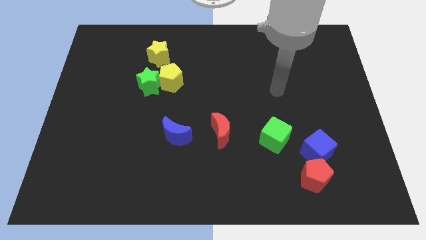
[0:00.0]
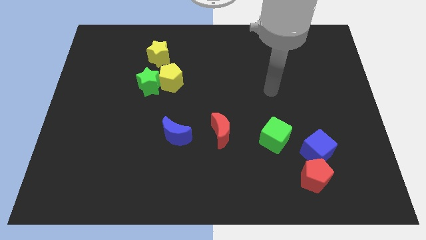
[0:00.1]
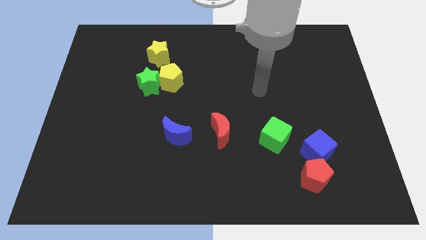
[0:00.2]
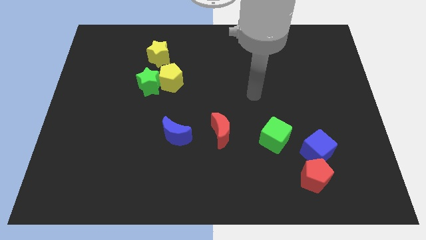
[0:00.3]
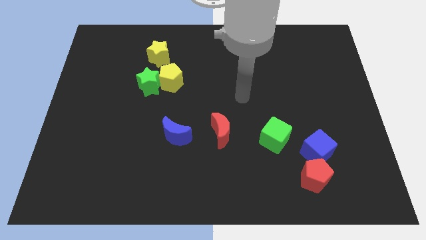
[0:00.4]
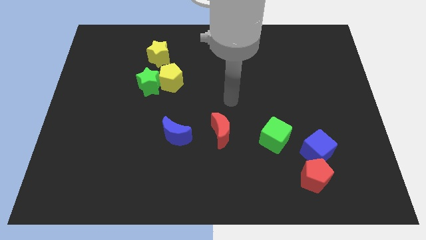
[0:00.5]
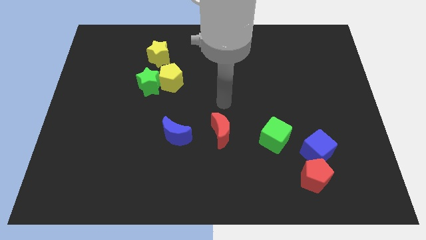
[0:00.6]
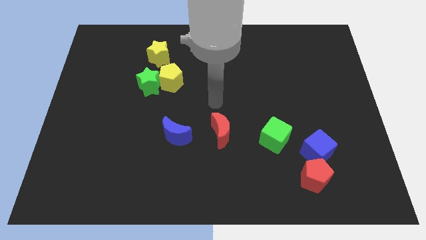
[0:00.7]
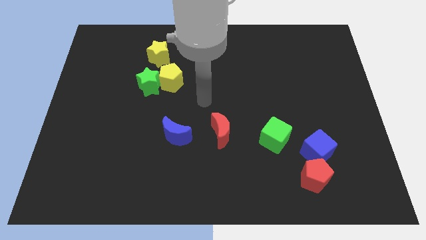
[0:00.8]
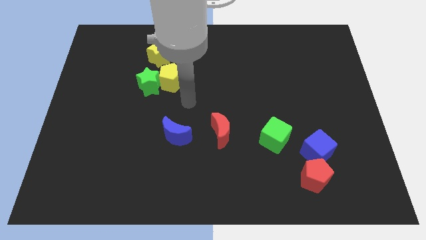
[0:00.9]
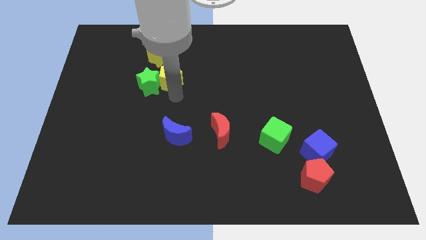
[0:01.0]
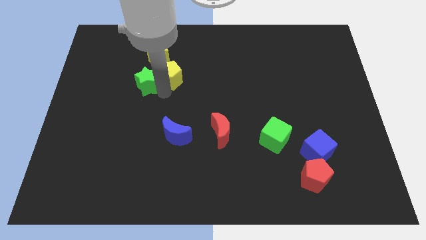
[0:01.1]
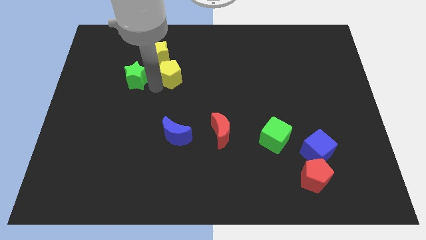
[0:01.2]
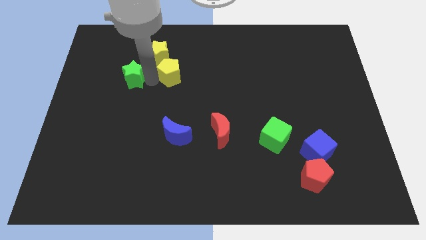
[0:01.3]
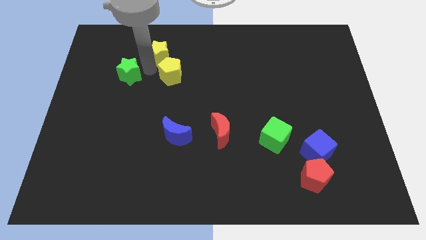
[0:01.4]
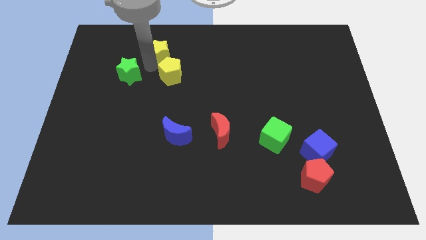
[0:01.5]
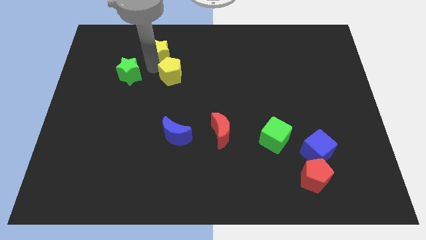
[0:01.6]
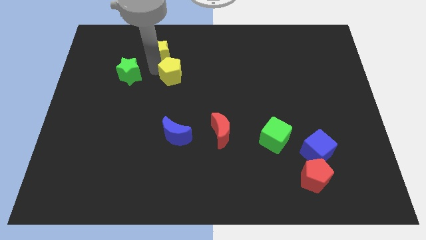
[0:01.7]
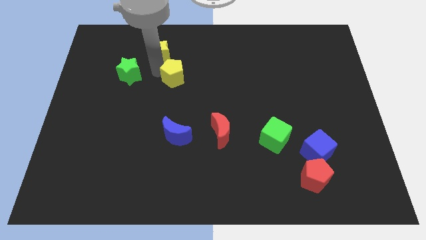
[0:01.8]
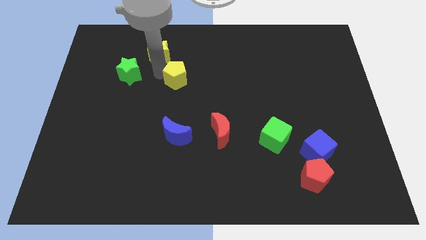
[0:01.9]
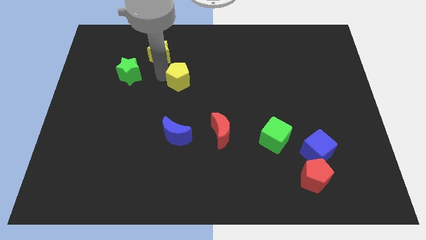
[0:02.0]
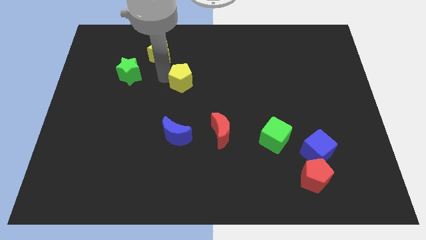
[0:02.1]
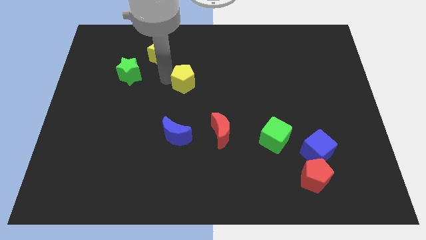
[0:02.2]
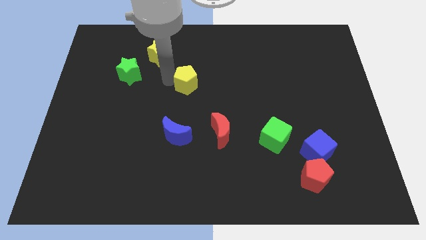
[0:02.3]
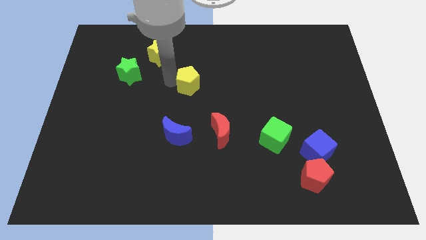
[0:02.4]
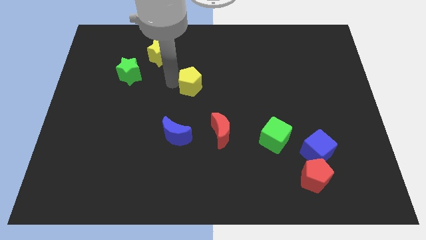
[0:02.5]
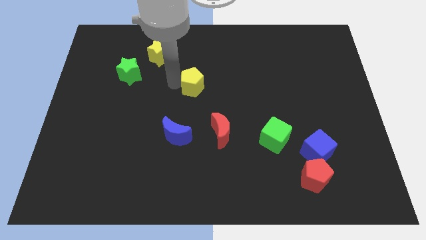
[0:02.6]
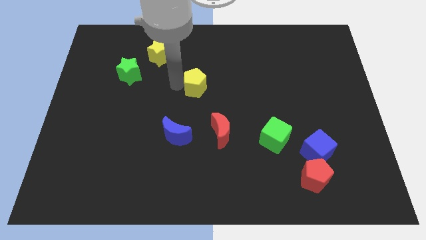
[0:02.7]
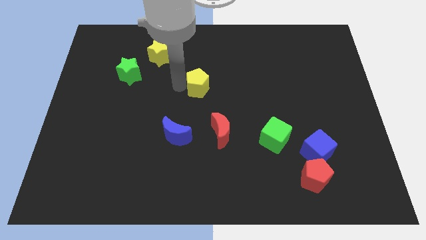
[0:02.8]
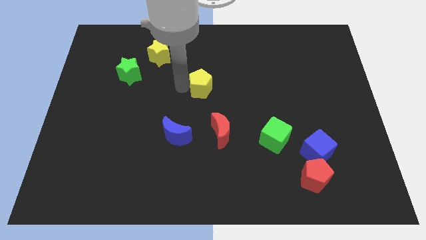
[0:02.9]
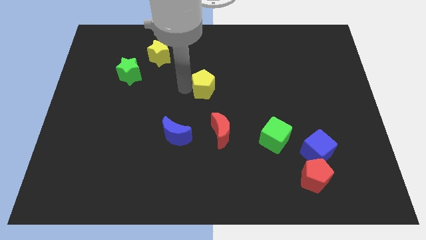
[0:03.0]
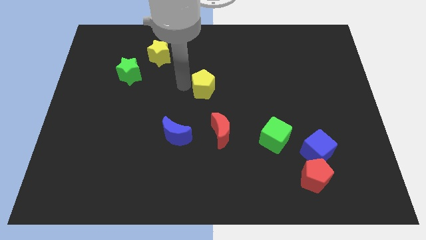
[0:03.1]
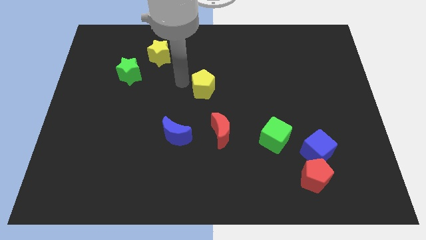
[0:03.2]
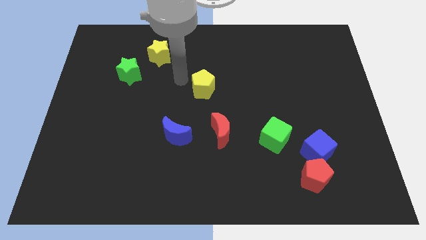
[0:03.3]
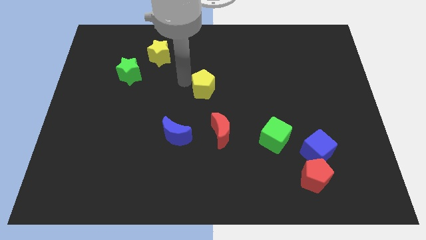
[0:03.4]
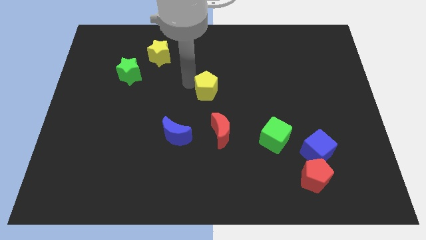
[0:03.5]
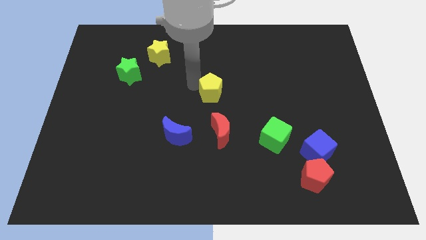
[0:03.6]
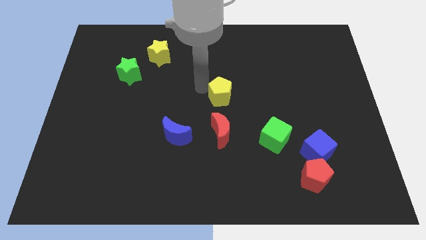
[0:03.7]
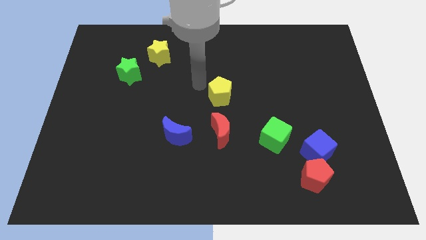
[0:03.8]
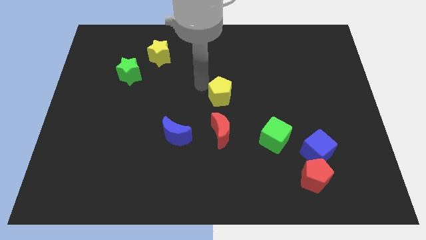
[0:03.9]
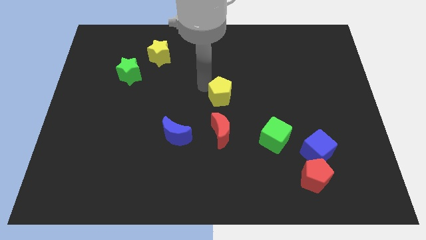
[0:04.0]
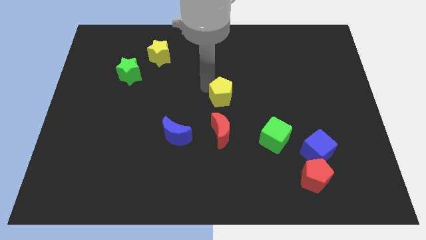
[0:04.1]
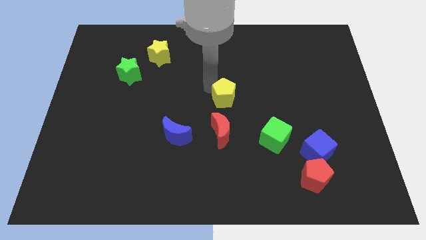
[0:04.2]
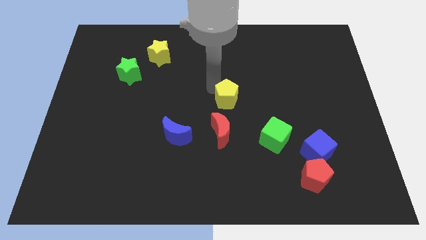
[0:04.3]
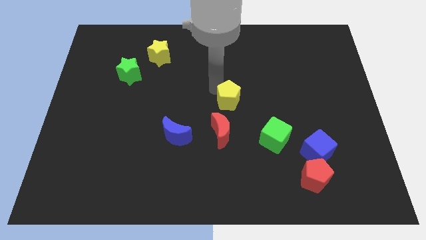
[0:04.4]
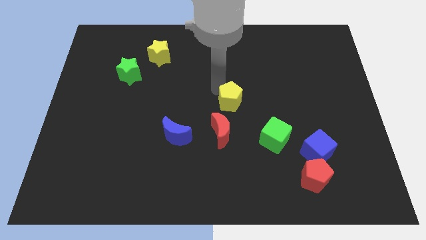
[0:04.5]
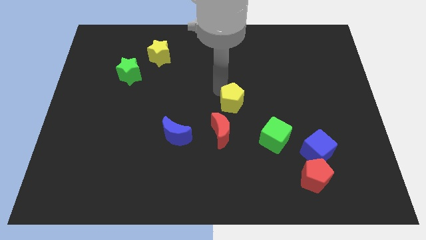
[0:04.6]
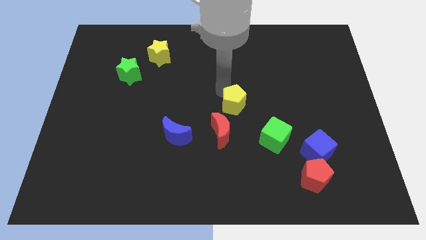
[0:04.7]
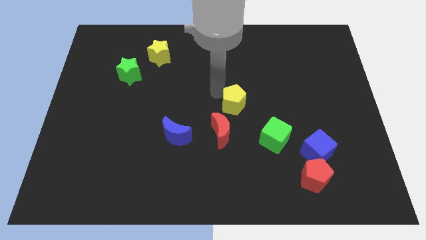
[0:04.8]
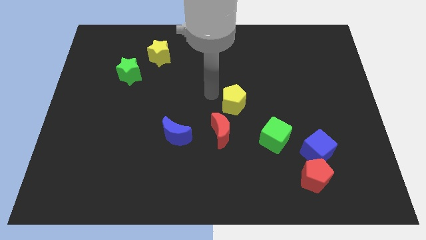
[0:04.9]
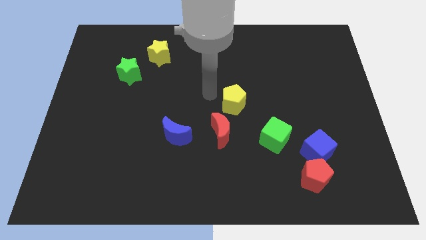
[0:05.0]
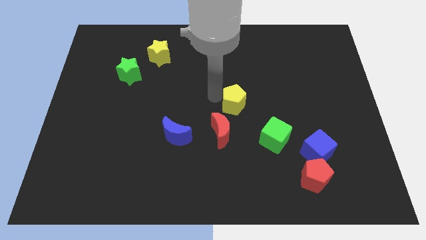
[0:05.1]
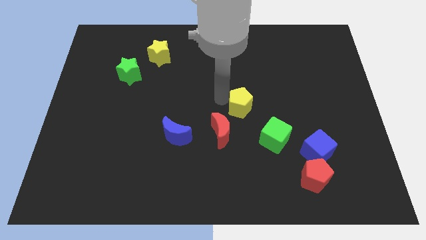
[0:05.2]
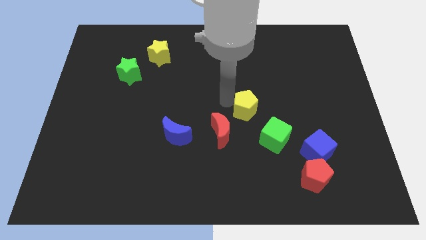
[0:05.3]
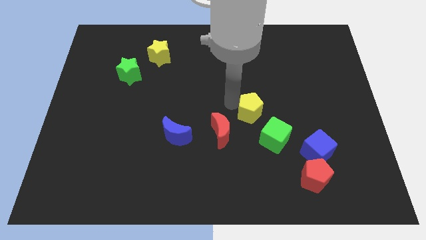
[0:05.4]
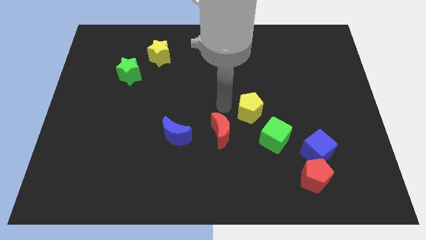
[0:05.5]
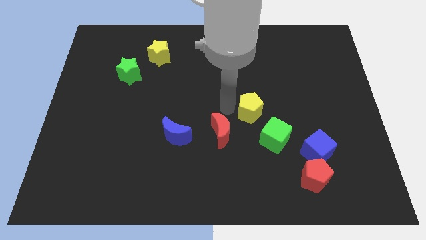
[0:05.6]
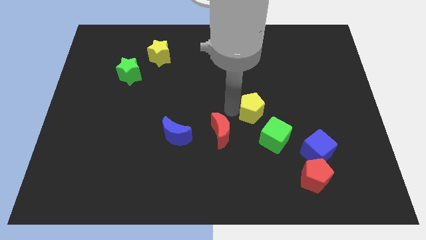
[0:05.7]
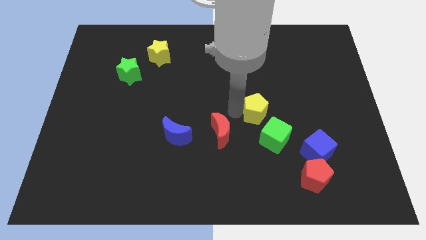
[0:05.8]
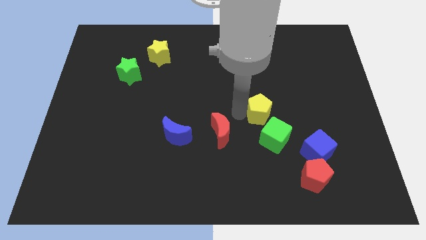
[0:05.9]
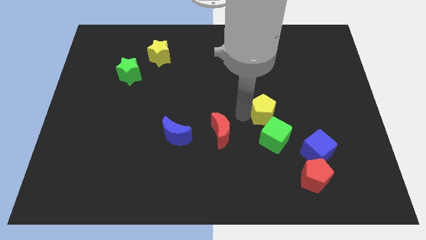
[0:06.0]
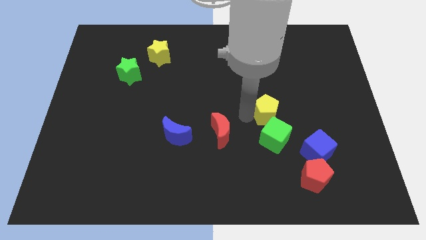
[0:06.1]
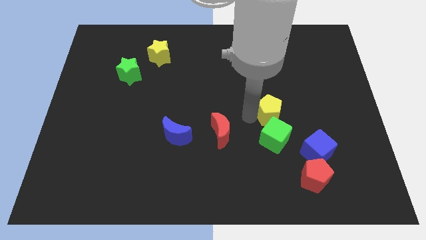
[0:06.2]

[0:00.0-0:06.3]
put the yellow pentagon to the top right side of the green cube

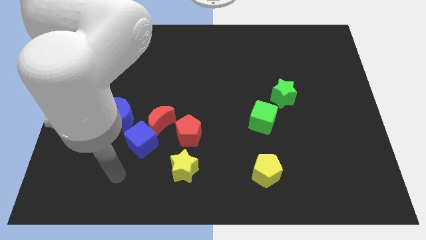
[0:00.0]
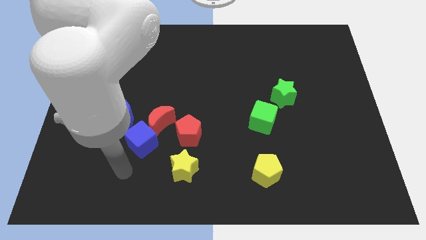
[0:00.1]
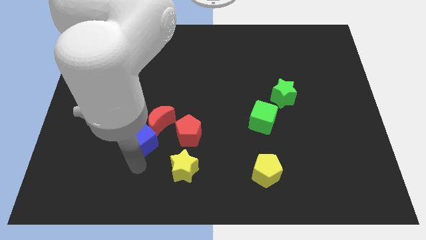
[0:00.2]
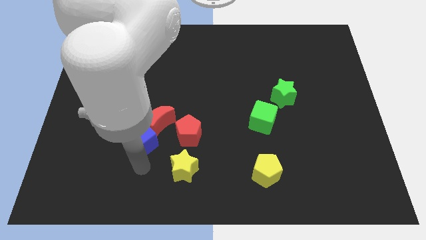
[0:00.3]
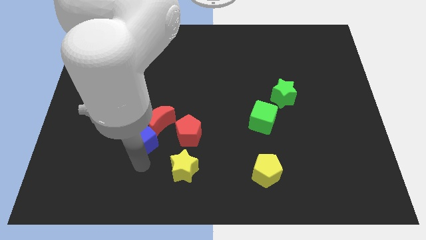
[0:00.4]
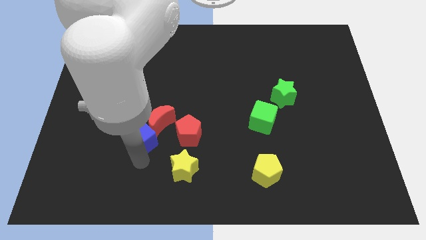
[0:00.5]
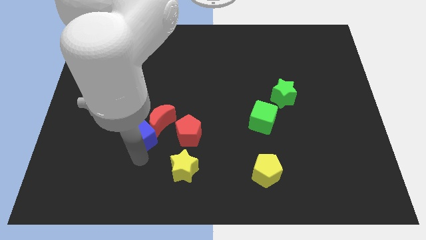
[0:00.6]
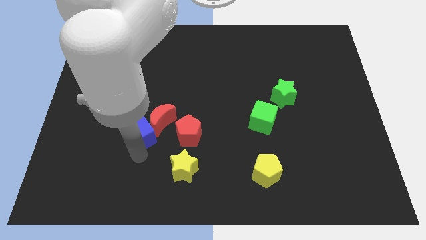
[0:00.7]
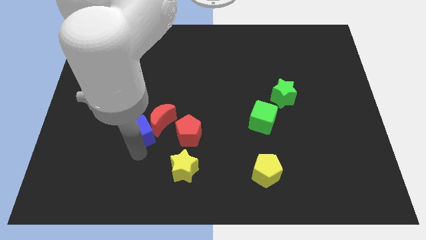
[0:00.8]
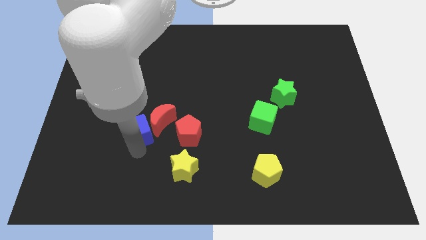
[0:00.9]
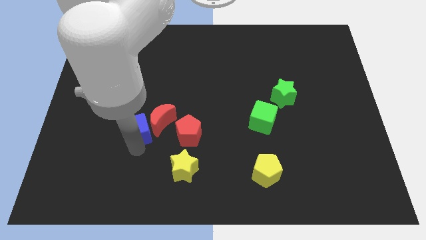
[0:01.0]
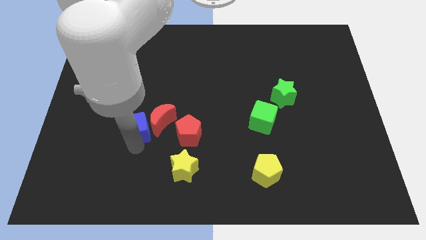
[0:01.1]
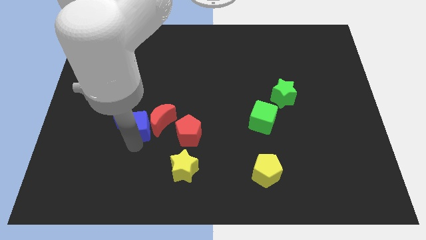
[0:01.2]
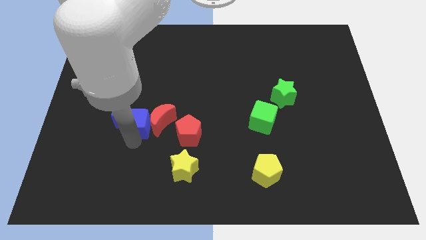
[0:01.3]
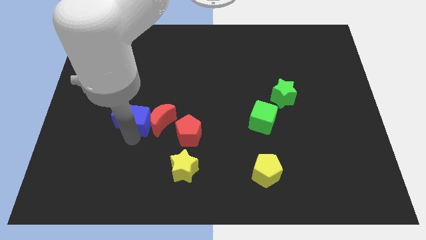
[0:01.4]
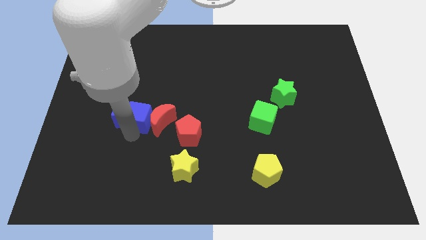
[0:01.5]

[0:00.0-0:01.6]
push the blue cube diagonally up and to the right of the blue moon

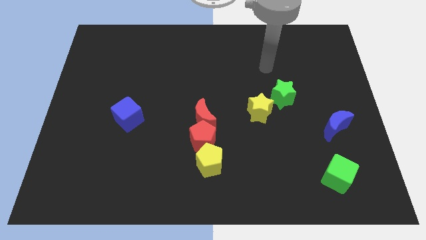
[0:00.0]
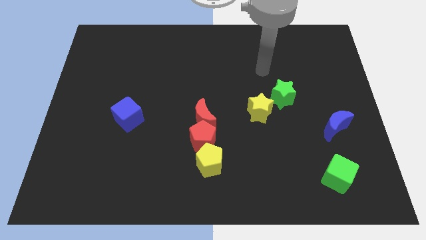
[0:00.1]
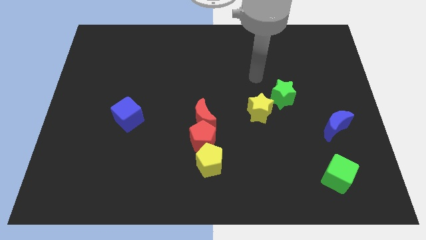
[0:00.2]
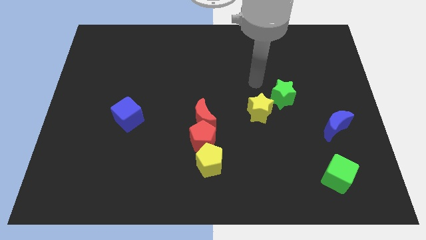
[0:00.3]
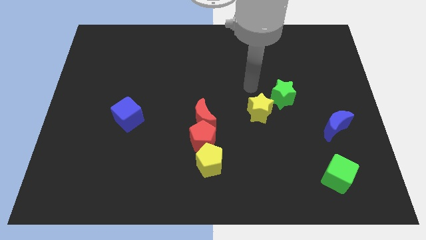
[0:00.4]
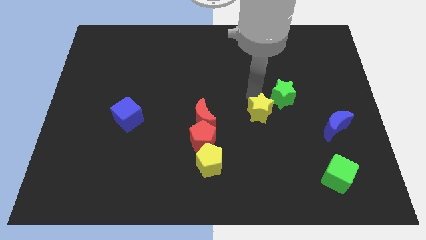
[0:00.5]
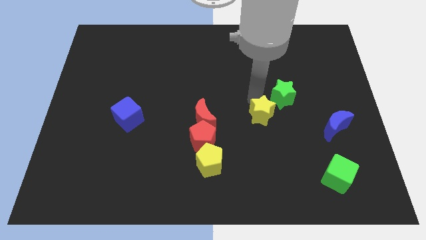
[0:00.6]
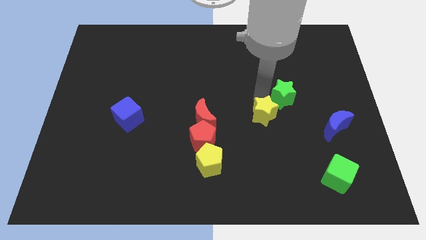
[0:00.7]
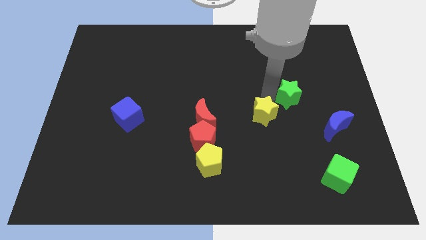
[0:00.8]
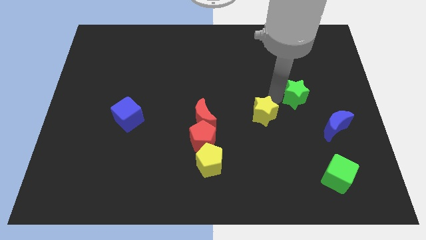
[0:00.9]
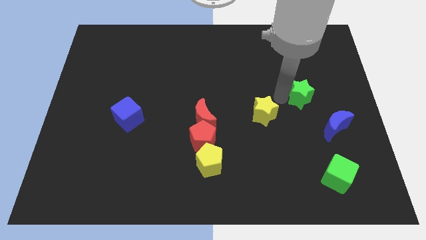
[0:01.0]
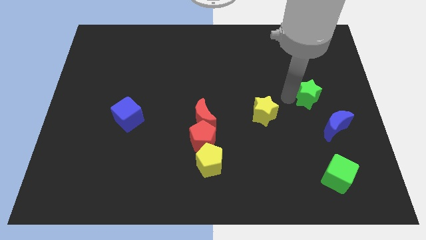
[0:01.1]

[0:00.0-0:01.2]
put the green star above the blue moon
